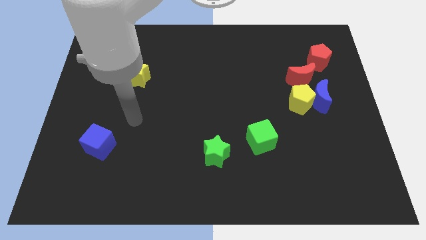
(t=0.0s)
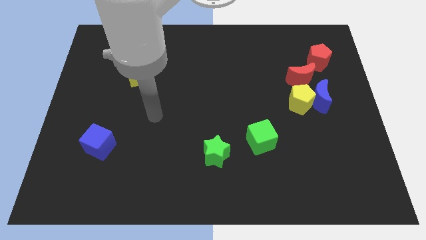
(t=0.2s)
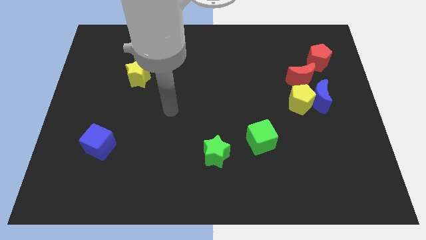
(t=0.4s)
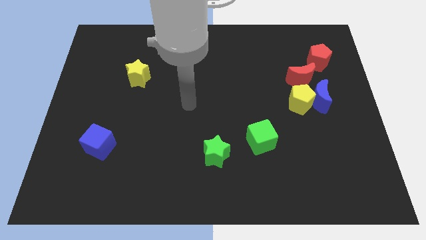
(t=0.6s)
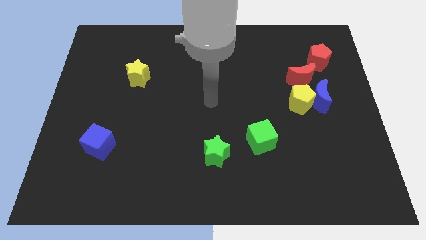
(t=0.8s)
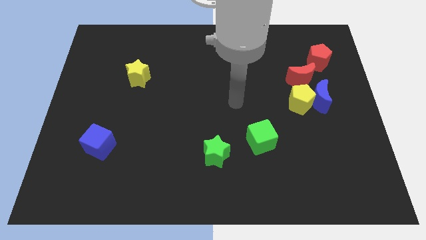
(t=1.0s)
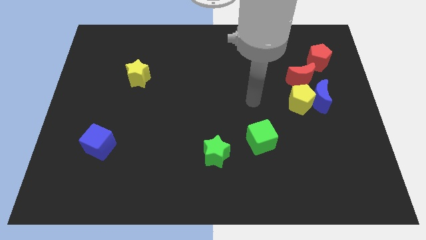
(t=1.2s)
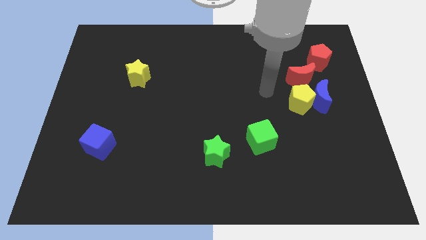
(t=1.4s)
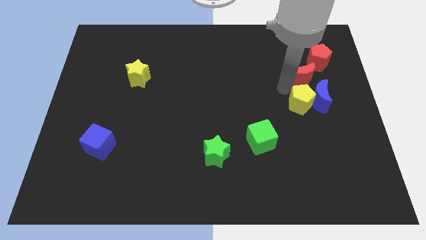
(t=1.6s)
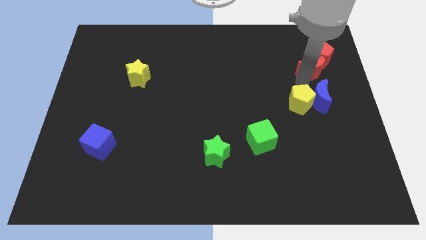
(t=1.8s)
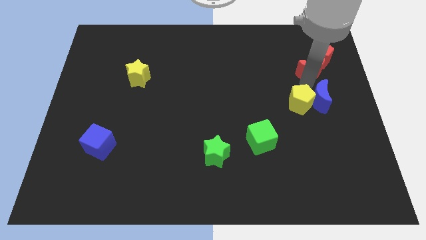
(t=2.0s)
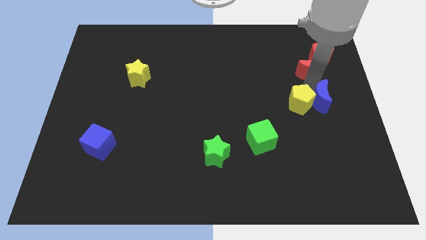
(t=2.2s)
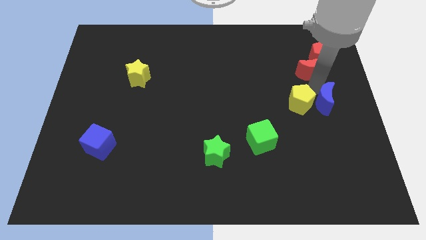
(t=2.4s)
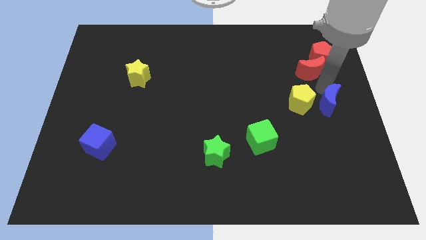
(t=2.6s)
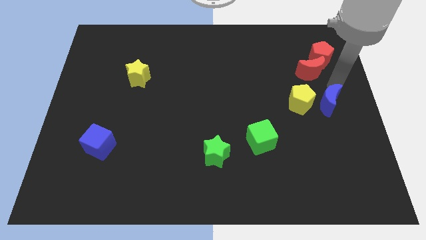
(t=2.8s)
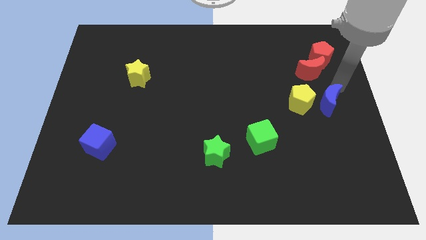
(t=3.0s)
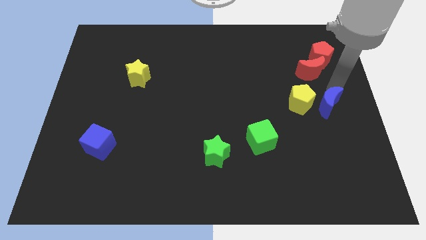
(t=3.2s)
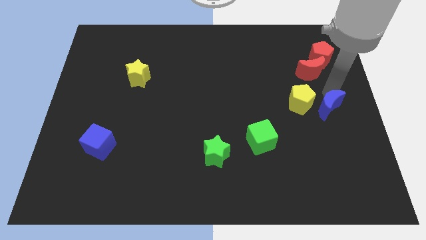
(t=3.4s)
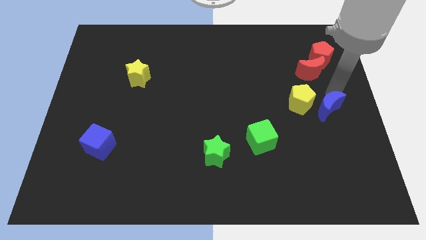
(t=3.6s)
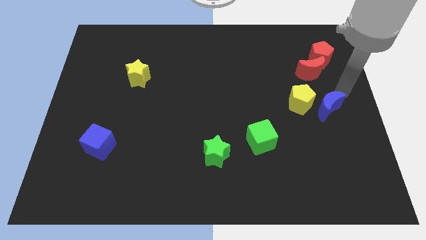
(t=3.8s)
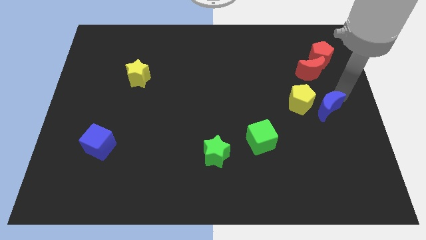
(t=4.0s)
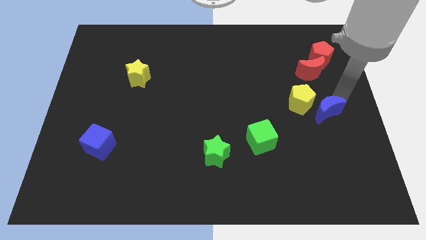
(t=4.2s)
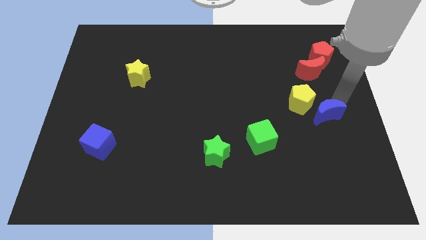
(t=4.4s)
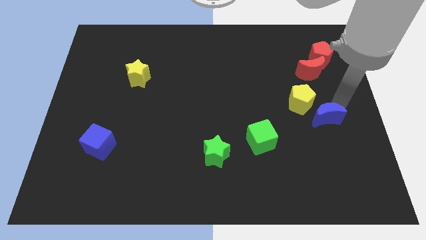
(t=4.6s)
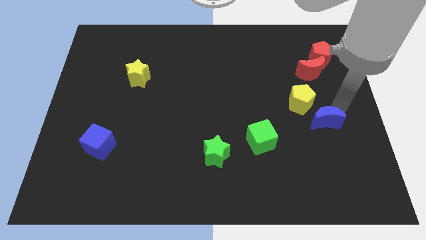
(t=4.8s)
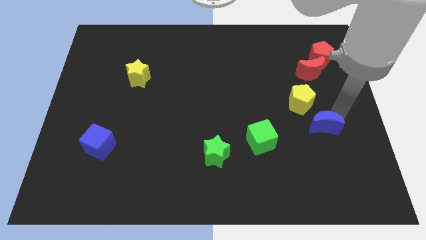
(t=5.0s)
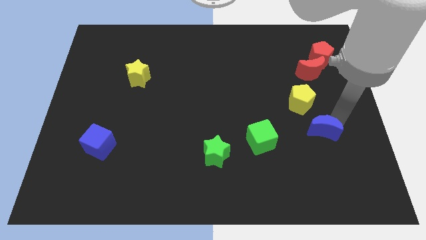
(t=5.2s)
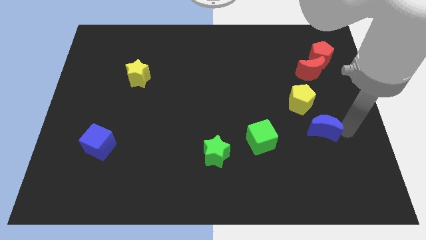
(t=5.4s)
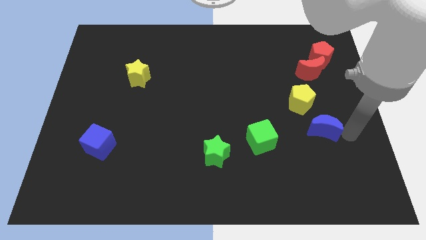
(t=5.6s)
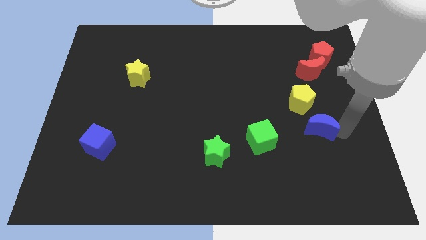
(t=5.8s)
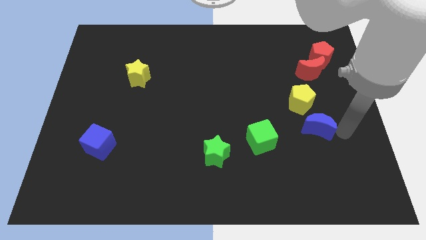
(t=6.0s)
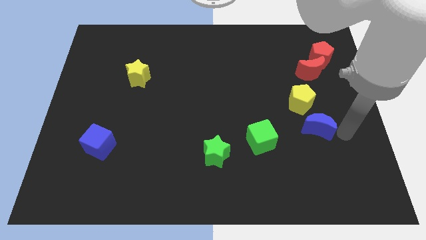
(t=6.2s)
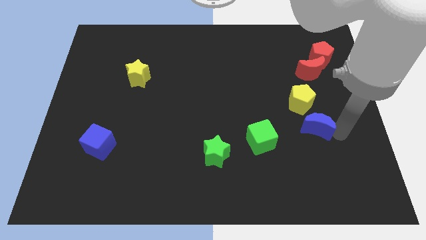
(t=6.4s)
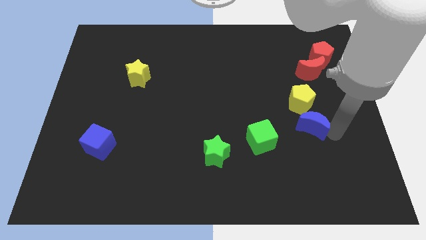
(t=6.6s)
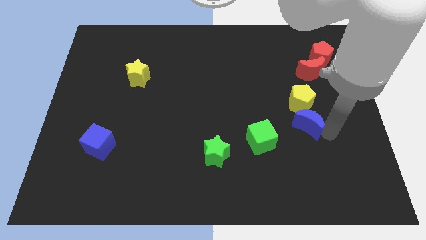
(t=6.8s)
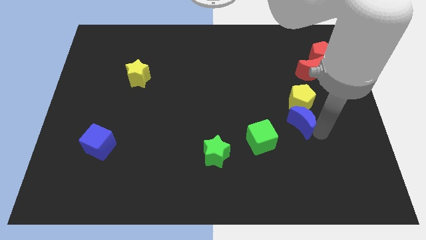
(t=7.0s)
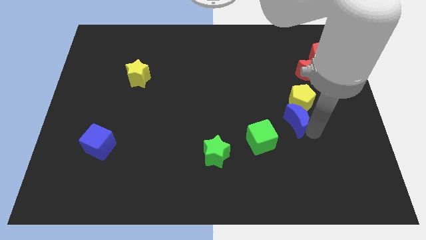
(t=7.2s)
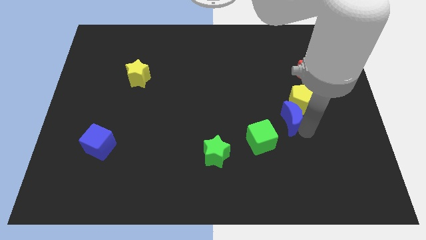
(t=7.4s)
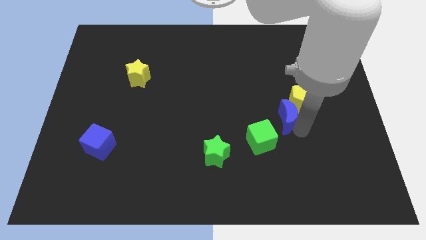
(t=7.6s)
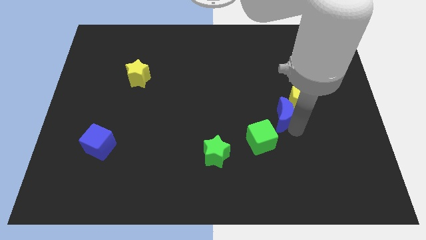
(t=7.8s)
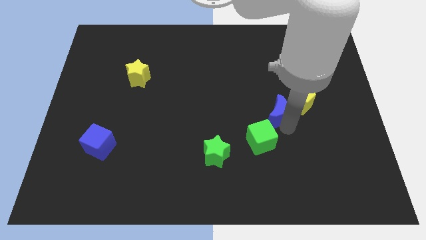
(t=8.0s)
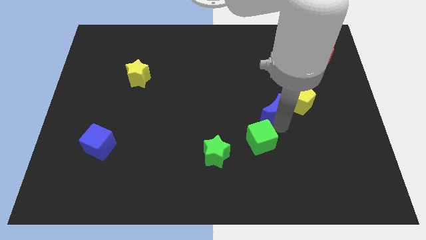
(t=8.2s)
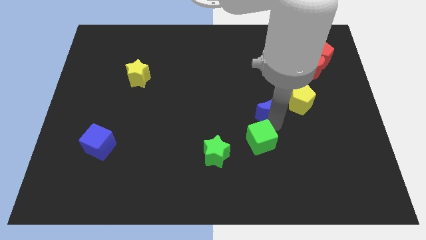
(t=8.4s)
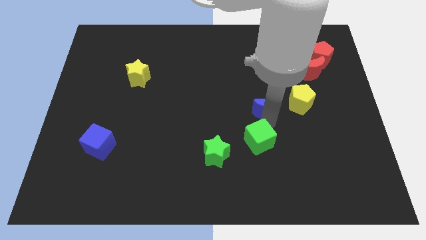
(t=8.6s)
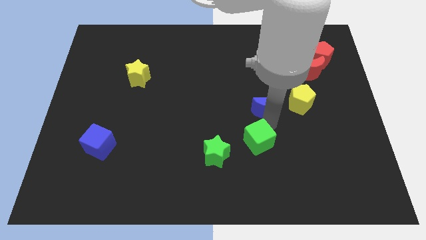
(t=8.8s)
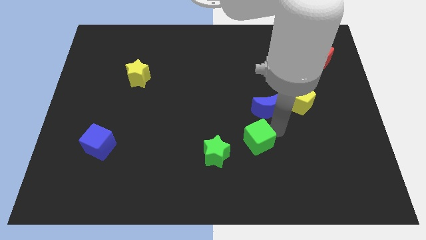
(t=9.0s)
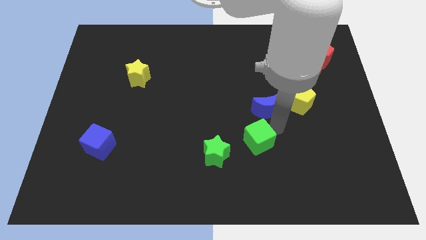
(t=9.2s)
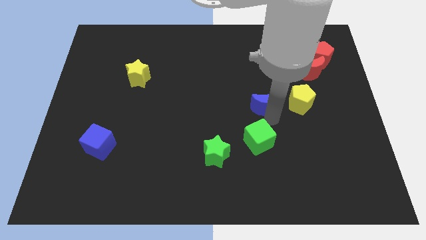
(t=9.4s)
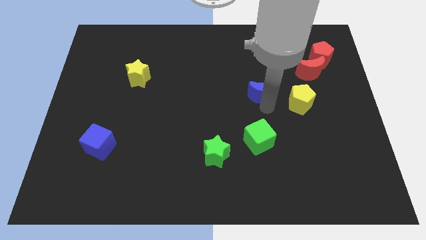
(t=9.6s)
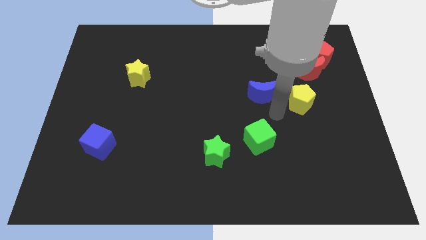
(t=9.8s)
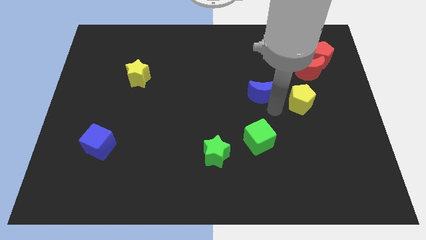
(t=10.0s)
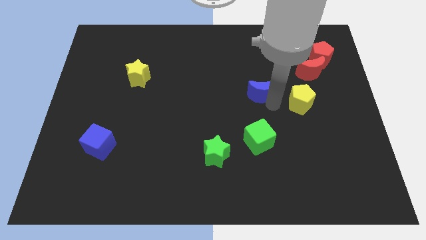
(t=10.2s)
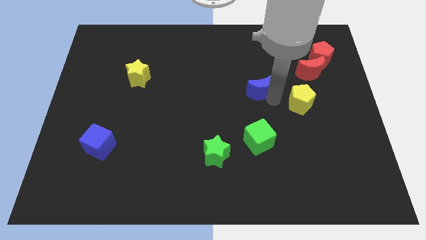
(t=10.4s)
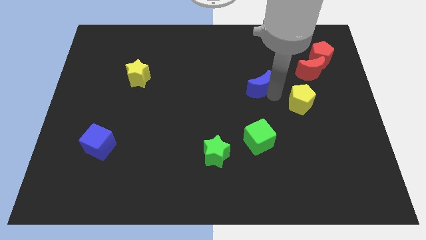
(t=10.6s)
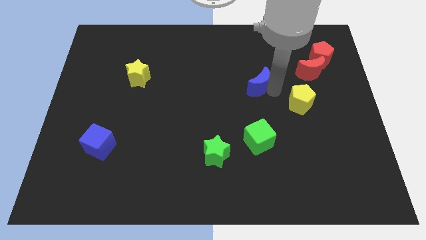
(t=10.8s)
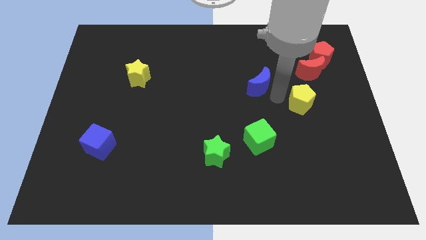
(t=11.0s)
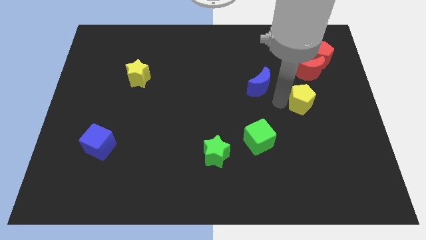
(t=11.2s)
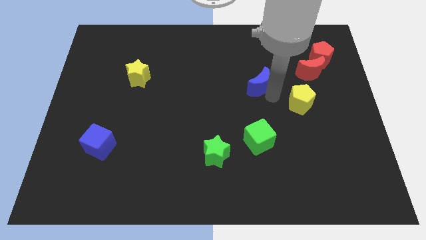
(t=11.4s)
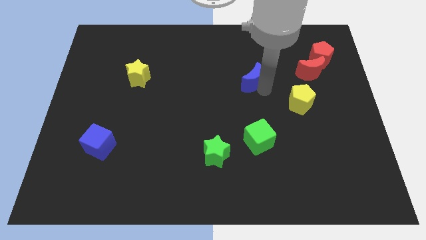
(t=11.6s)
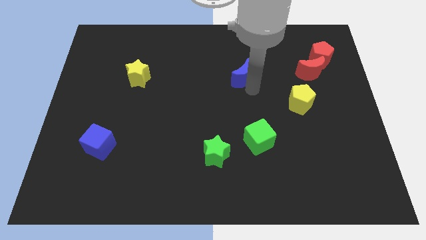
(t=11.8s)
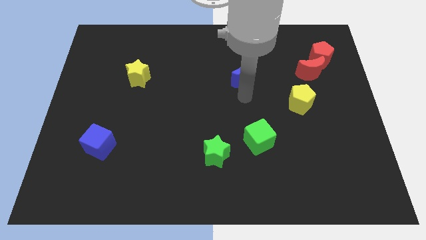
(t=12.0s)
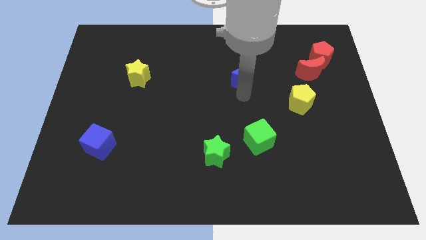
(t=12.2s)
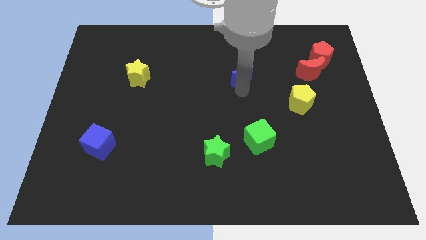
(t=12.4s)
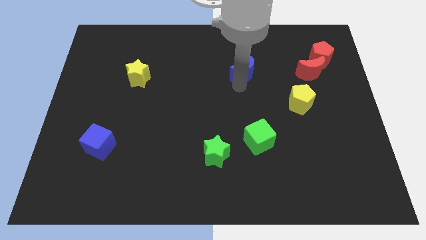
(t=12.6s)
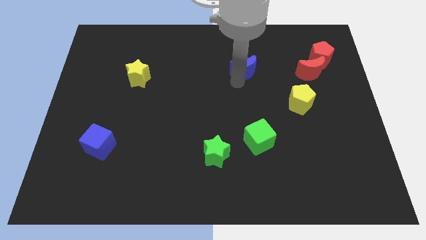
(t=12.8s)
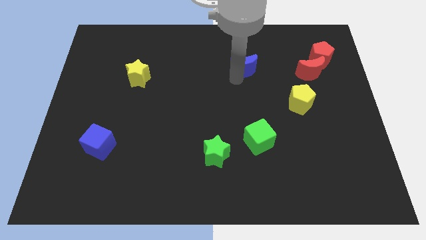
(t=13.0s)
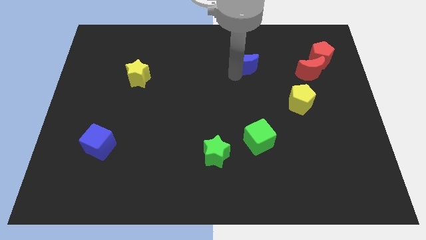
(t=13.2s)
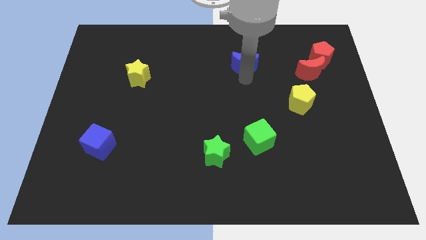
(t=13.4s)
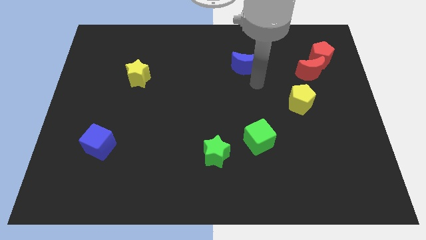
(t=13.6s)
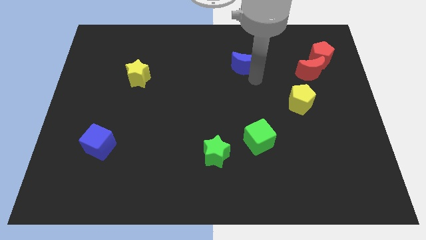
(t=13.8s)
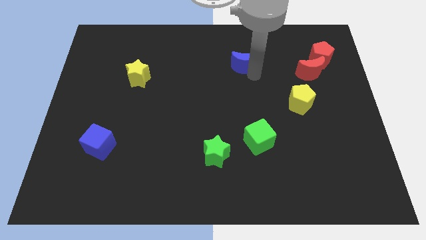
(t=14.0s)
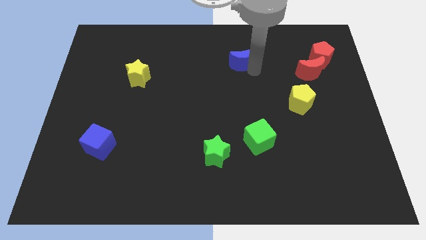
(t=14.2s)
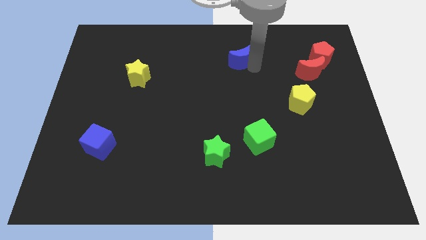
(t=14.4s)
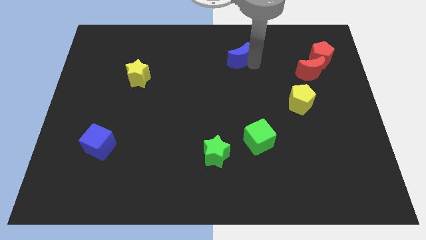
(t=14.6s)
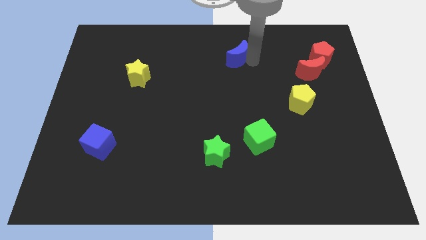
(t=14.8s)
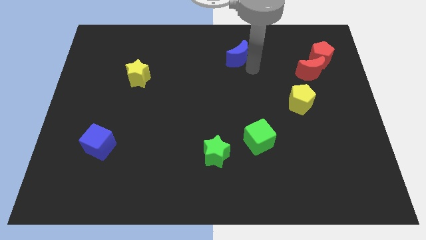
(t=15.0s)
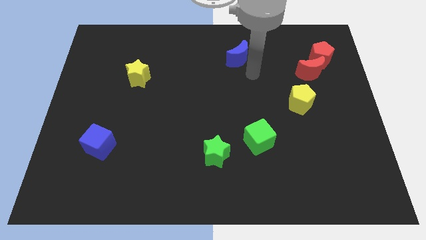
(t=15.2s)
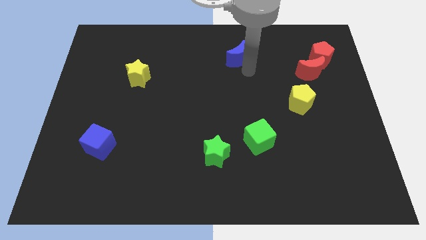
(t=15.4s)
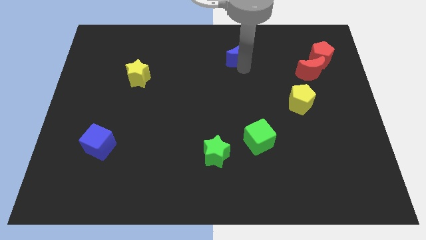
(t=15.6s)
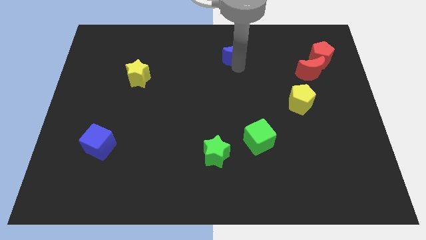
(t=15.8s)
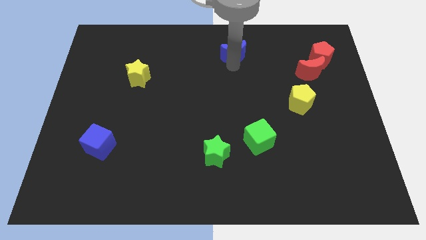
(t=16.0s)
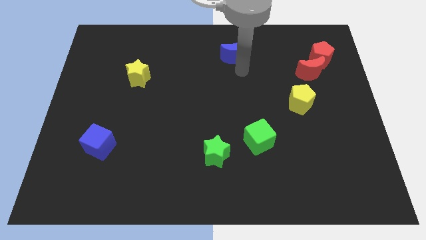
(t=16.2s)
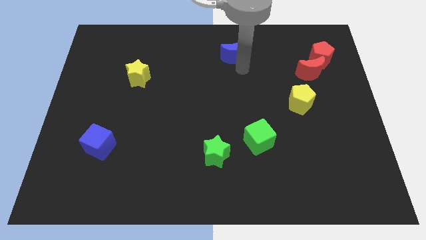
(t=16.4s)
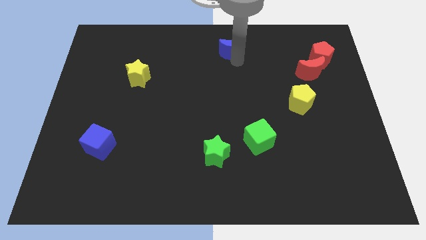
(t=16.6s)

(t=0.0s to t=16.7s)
move the blue moon to the towards your base
